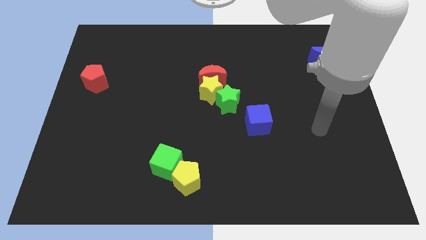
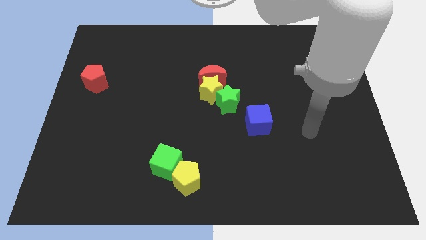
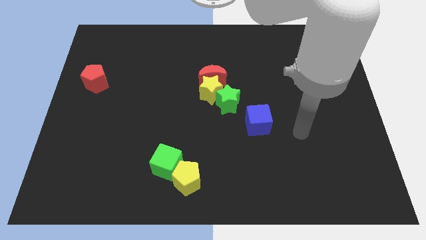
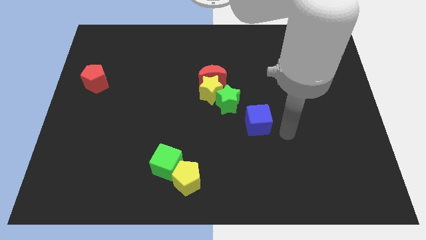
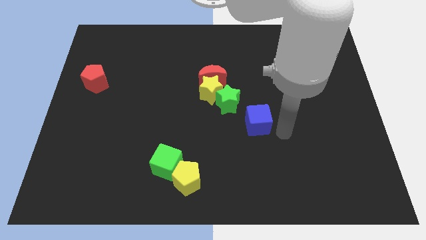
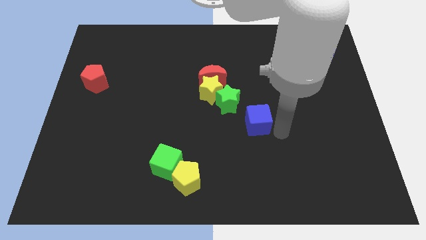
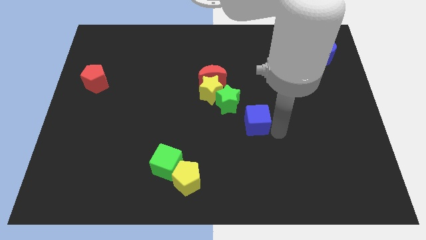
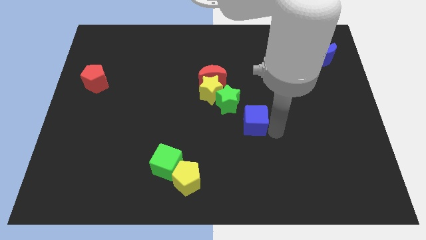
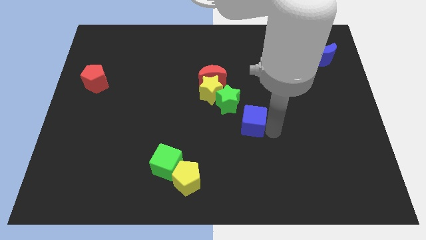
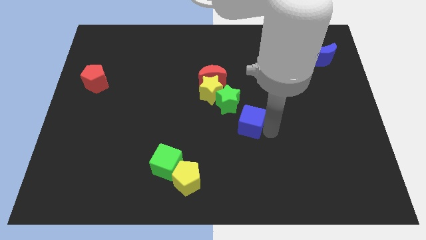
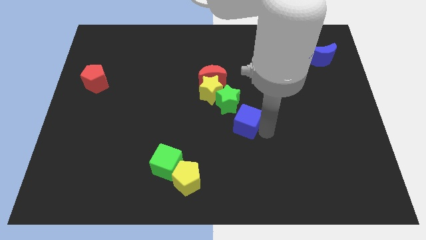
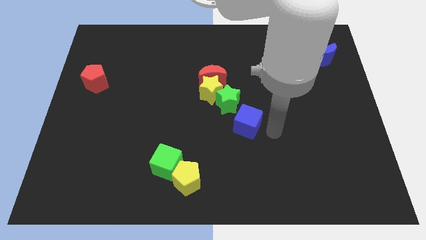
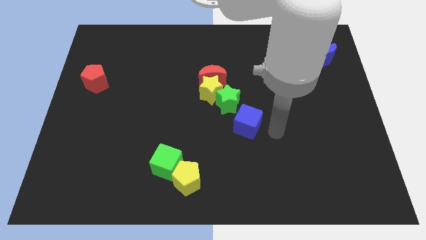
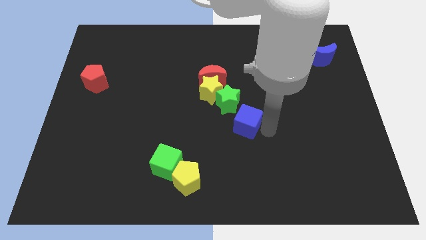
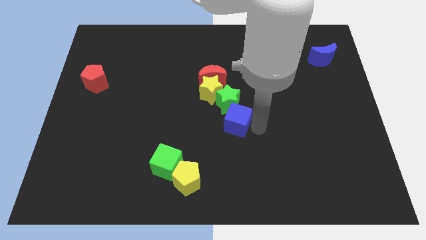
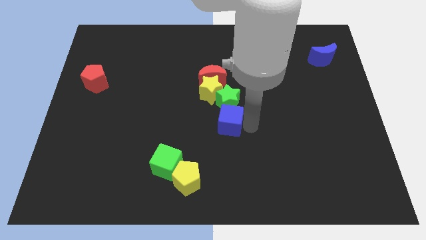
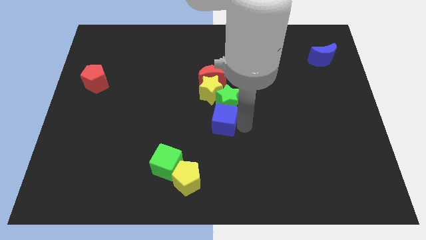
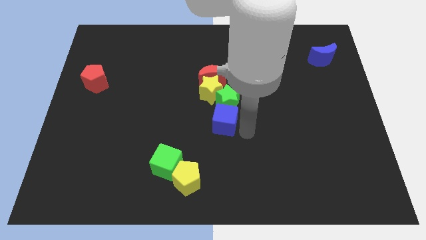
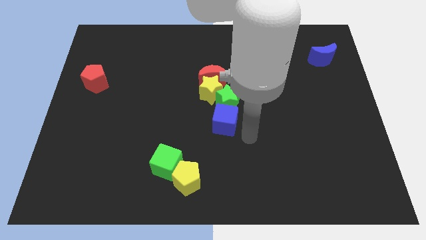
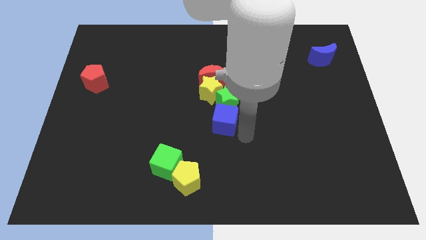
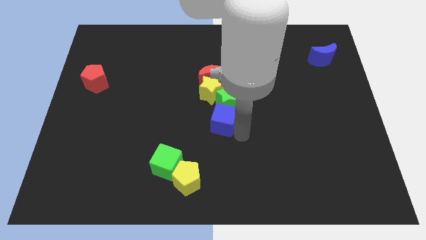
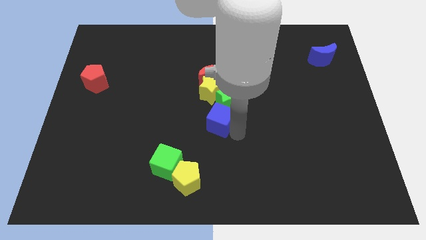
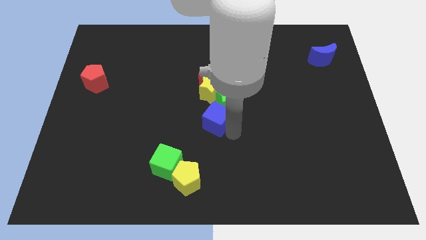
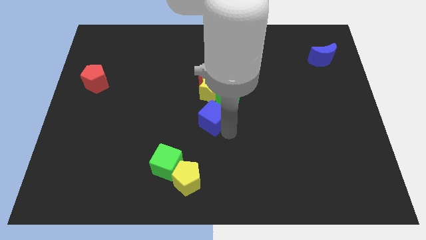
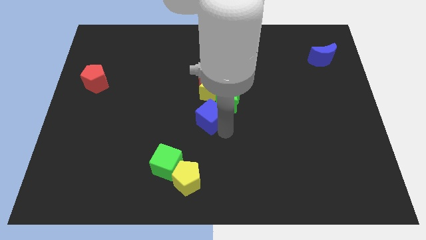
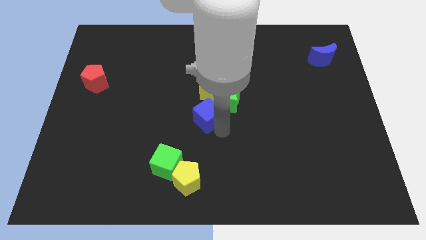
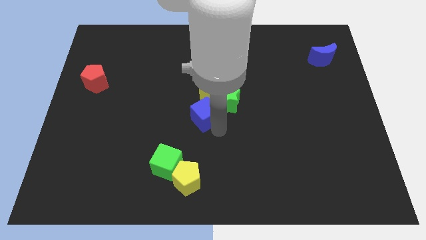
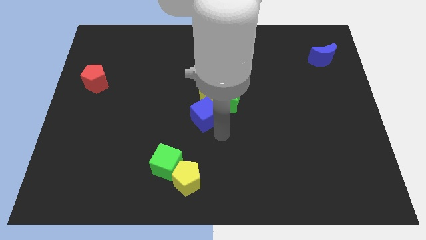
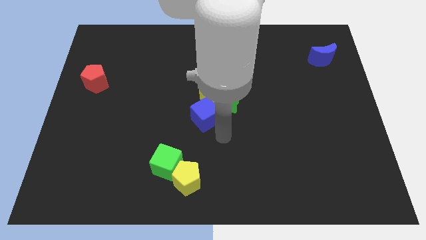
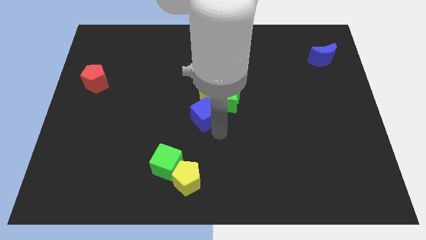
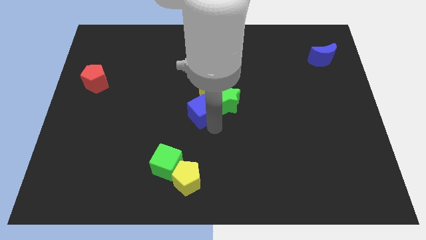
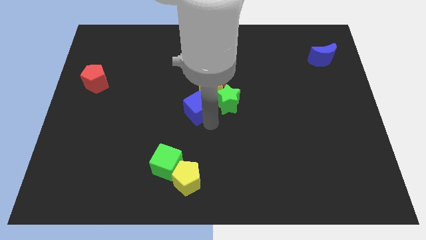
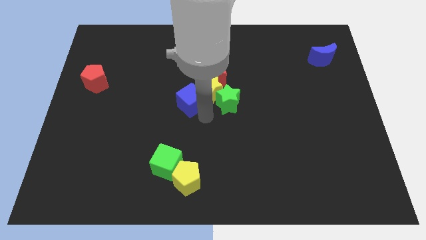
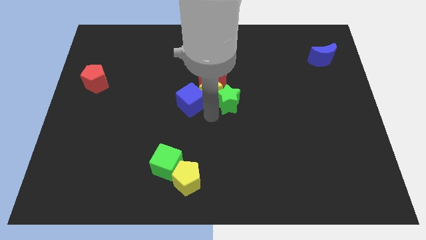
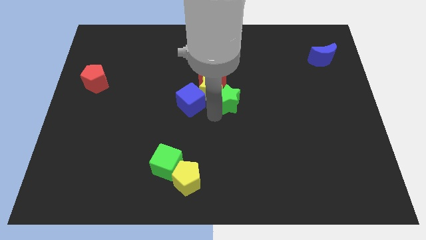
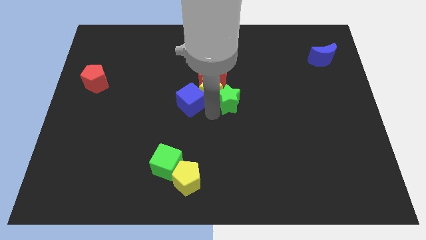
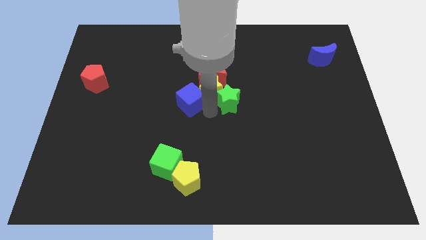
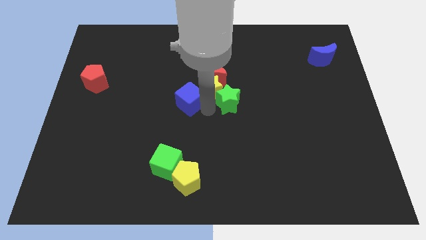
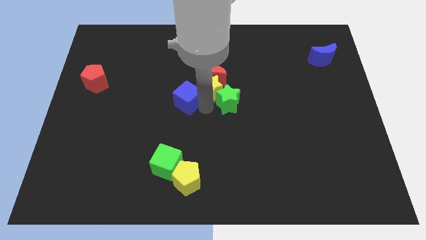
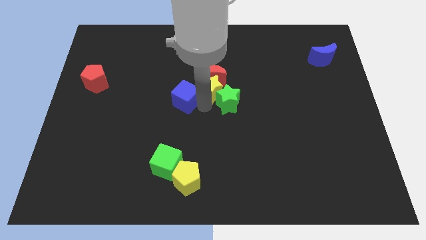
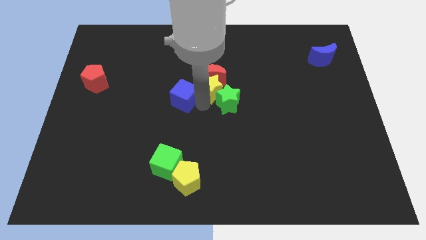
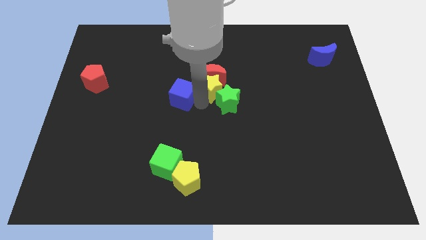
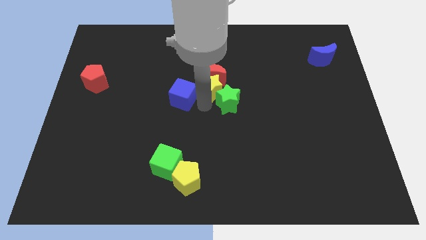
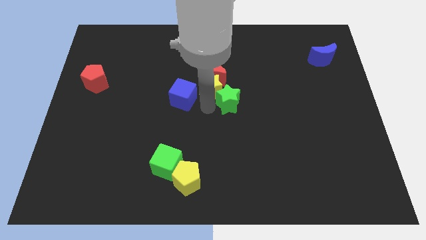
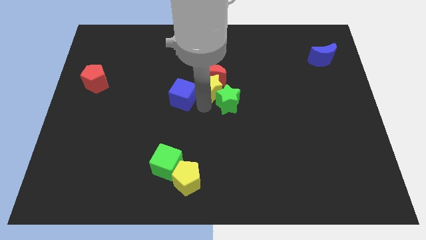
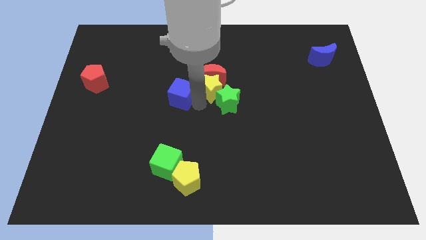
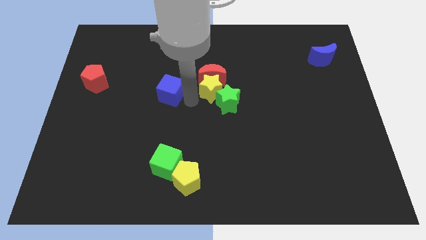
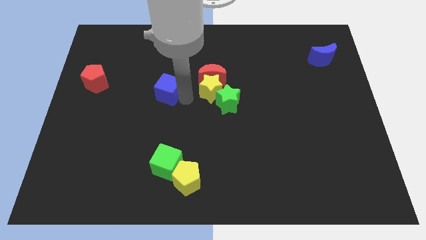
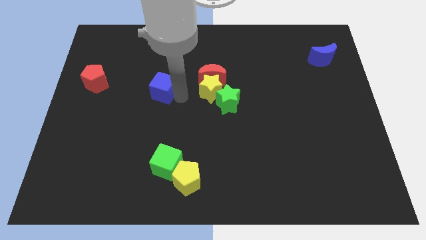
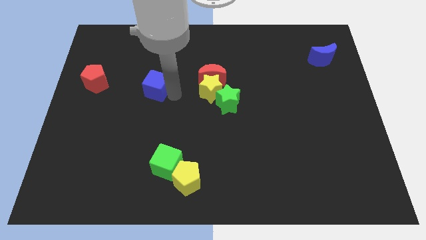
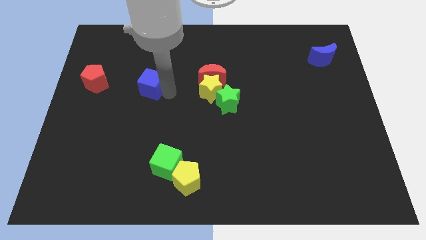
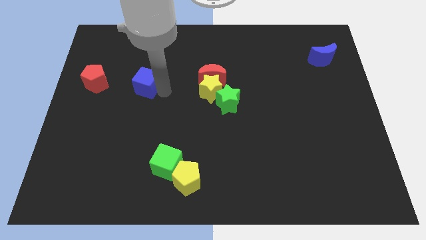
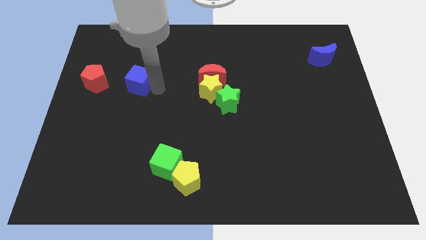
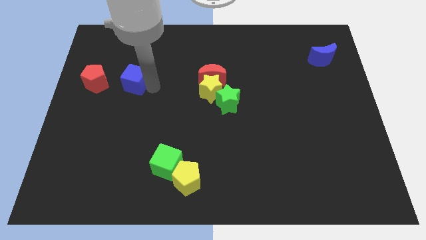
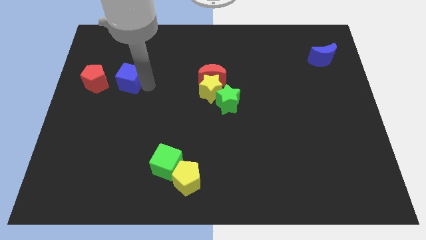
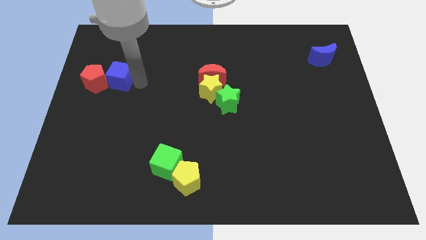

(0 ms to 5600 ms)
move the blue cube towards the red pentagon

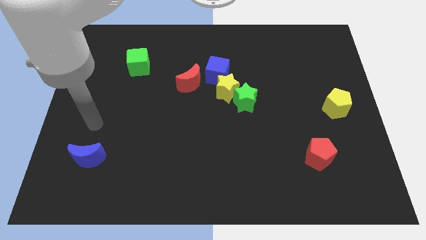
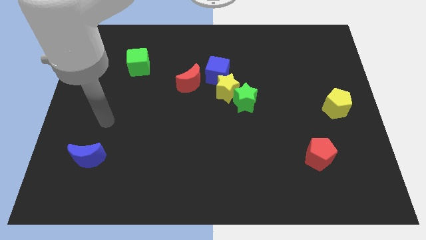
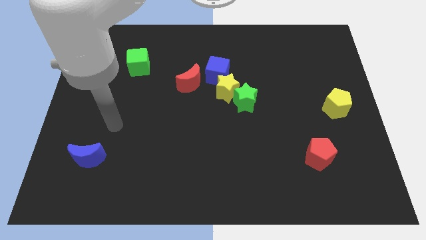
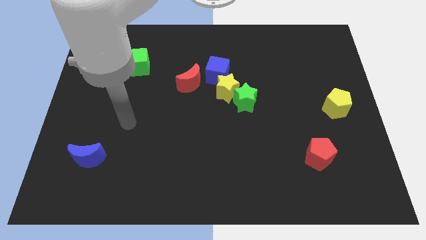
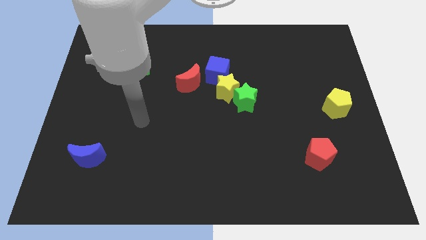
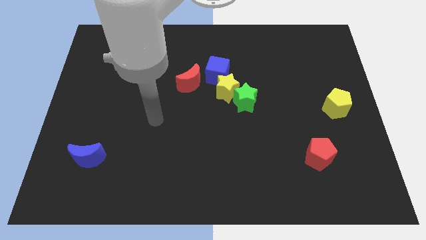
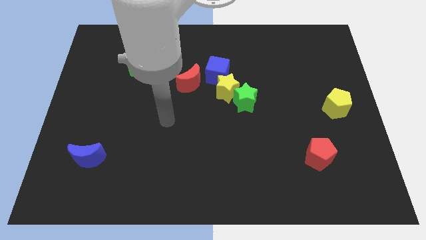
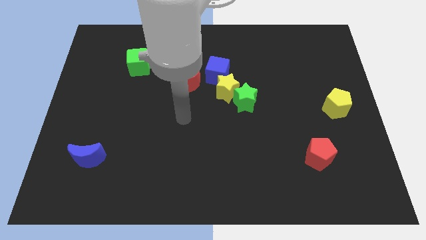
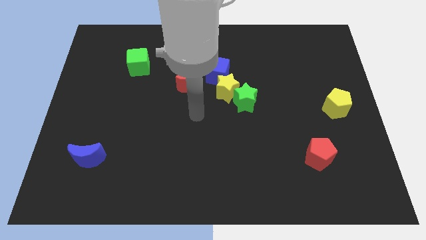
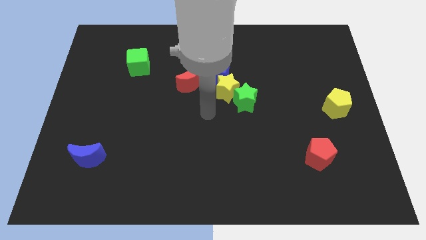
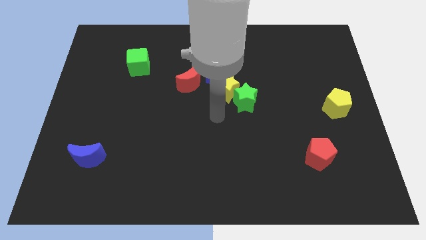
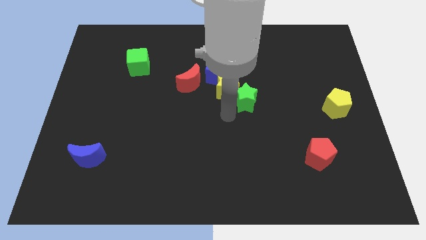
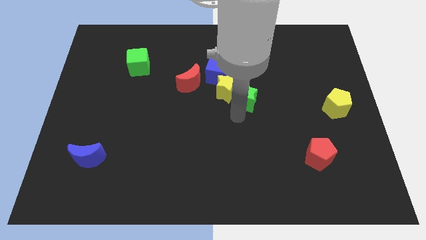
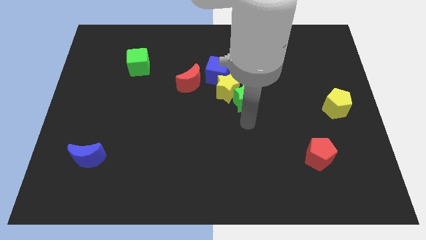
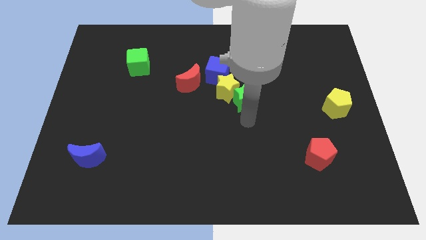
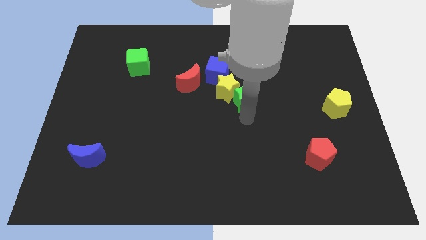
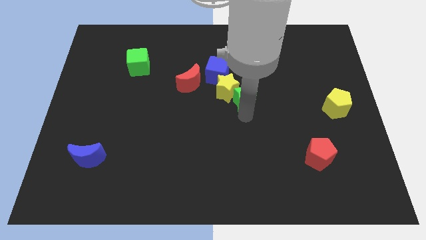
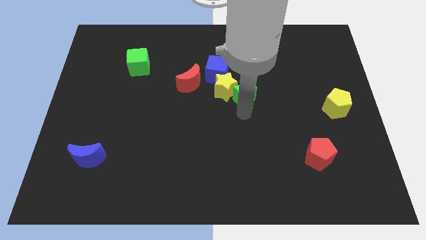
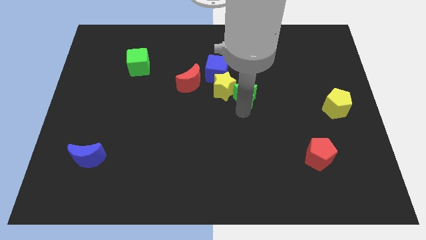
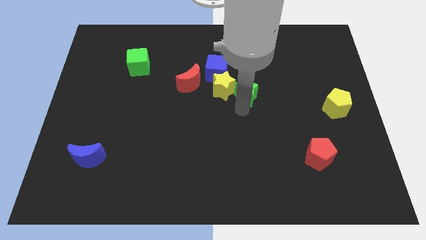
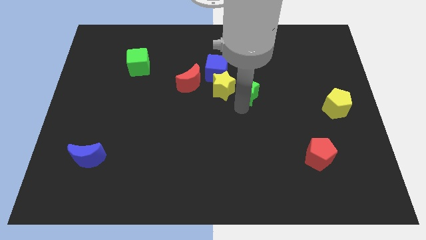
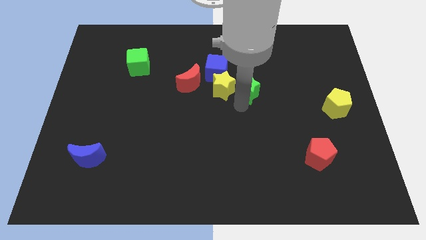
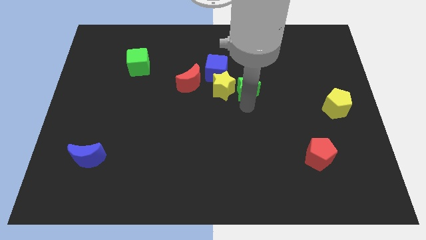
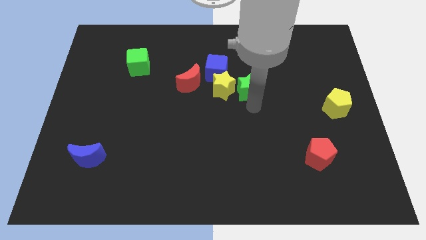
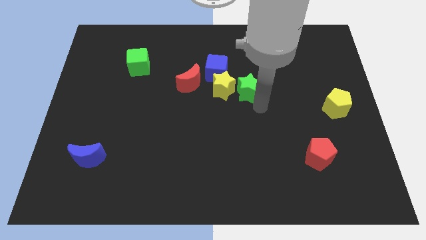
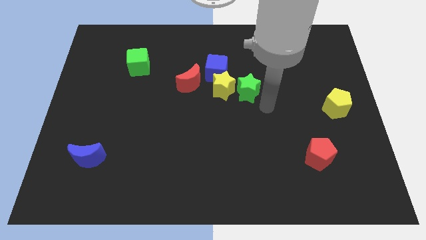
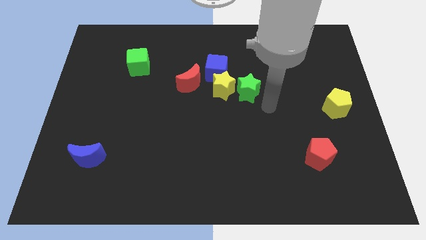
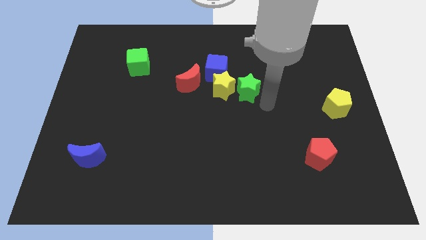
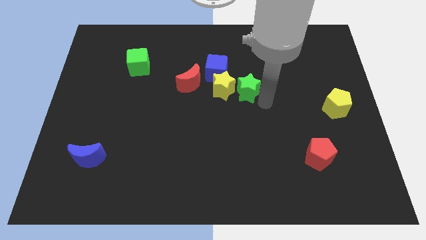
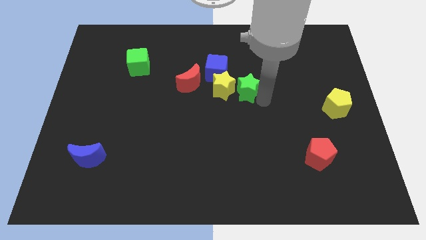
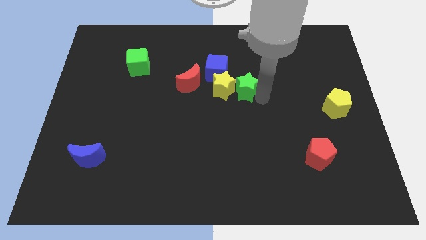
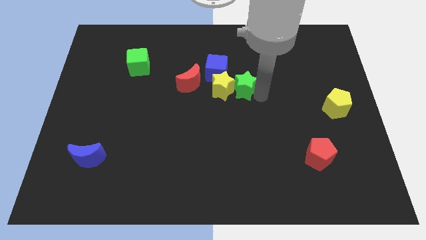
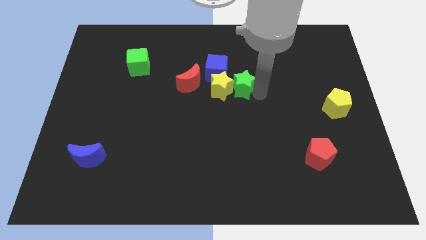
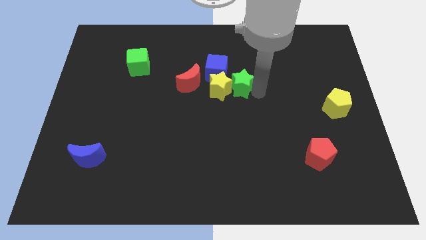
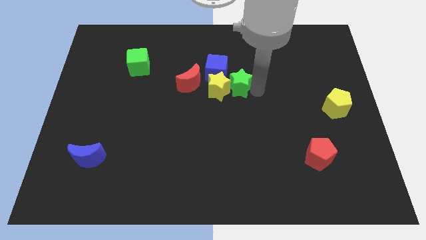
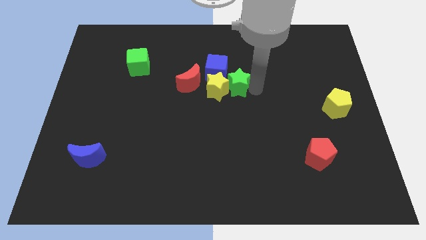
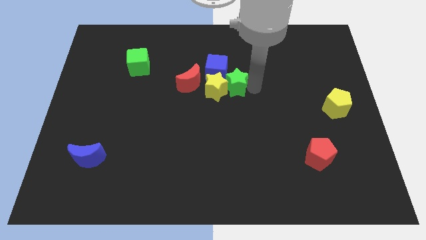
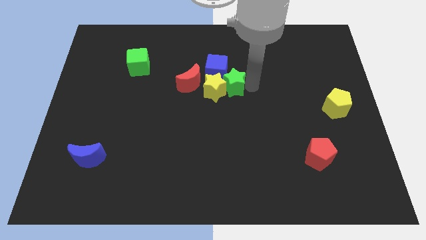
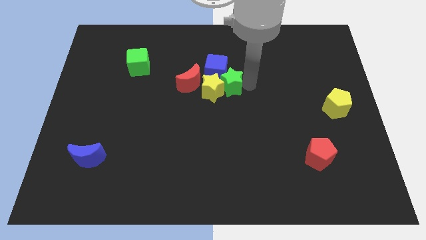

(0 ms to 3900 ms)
push the green star to the blue cube
